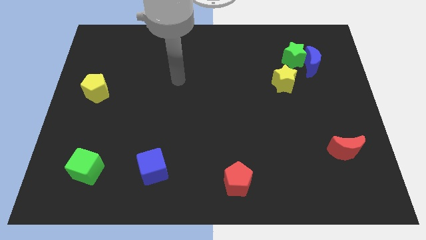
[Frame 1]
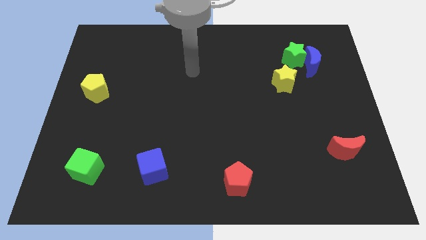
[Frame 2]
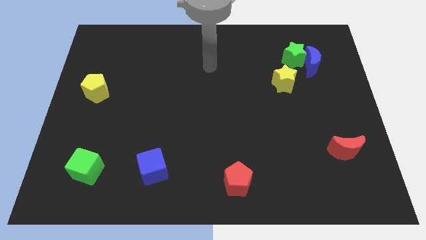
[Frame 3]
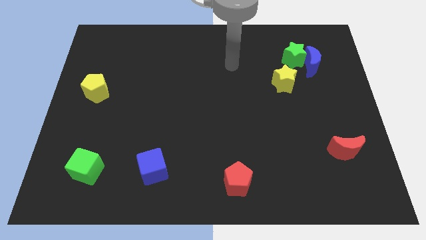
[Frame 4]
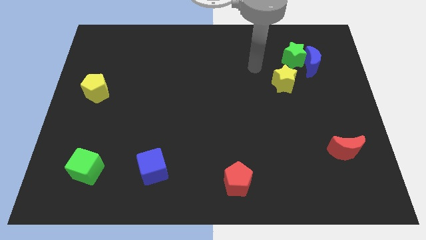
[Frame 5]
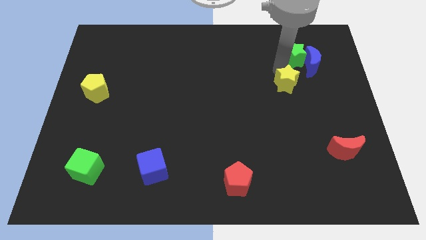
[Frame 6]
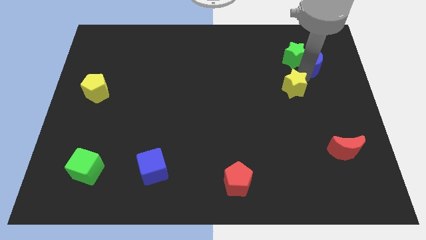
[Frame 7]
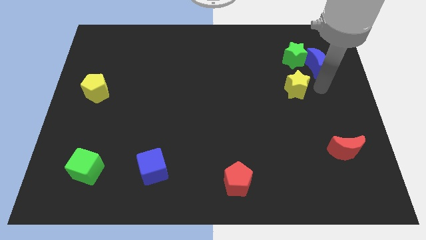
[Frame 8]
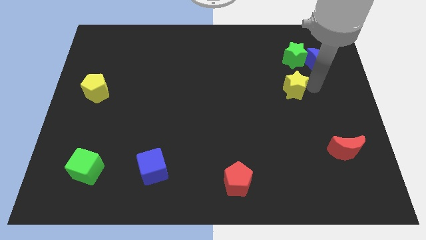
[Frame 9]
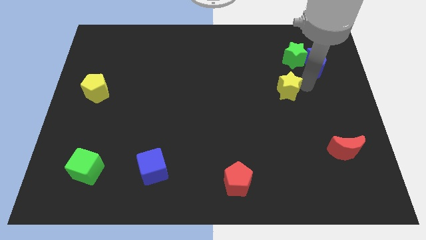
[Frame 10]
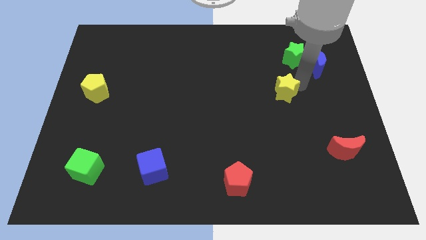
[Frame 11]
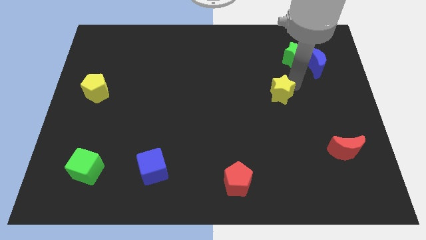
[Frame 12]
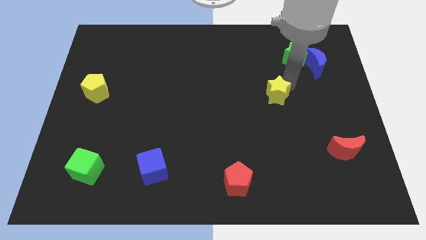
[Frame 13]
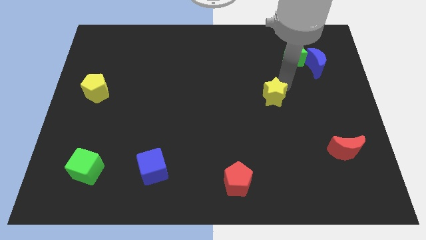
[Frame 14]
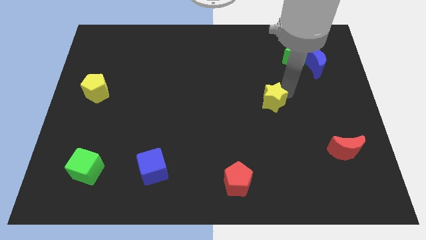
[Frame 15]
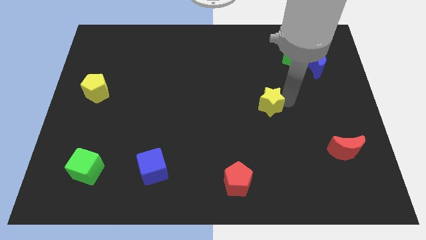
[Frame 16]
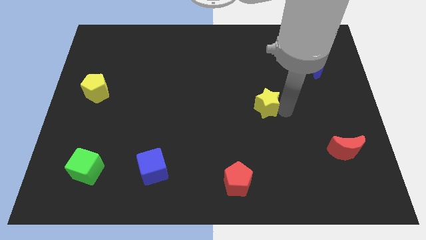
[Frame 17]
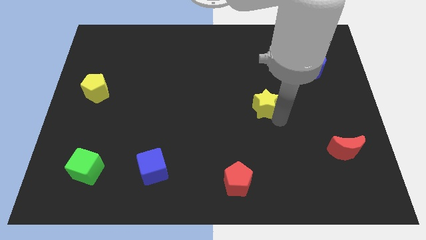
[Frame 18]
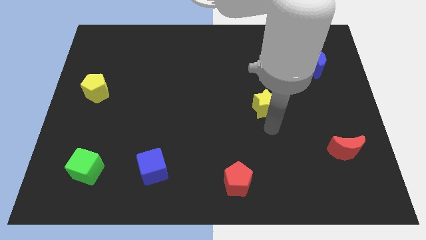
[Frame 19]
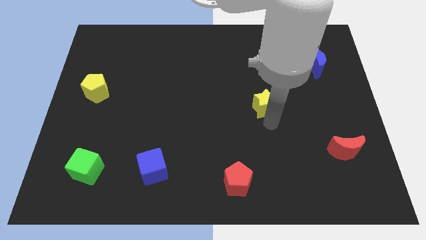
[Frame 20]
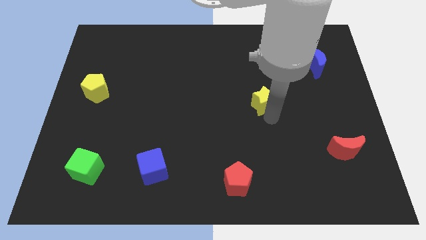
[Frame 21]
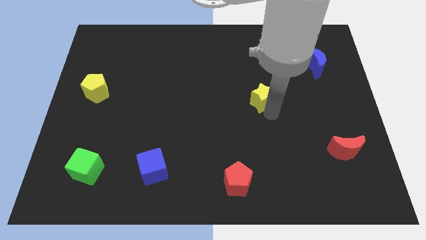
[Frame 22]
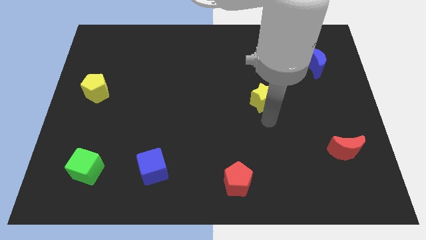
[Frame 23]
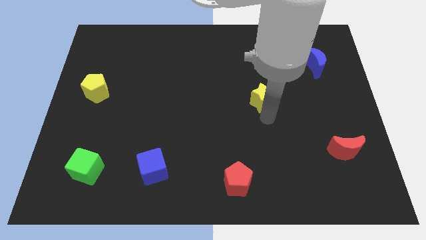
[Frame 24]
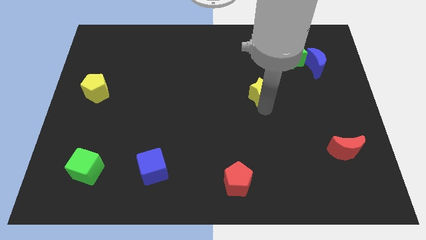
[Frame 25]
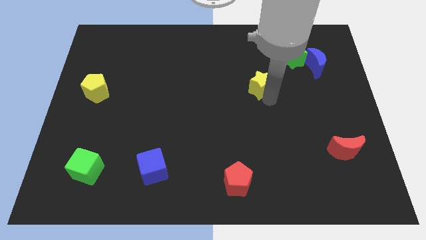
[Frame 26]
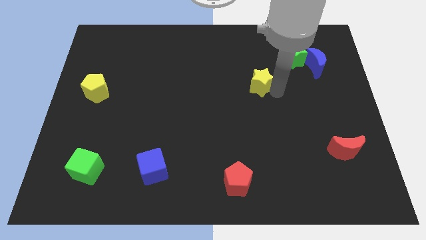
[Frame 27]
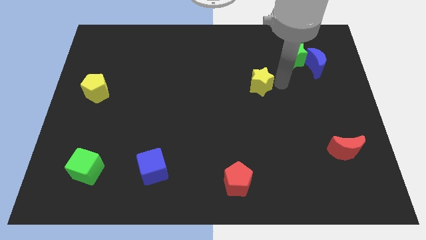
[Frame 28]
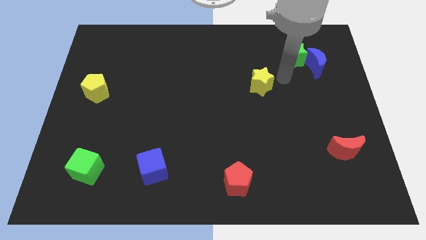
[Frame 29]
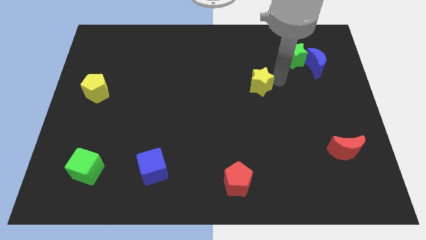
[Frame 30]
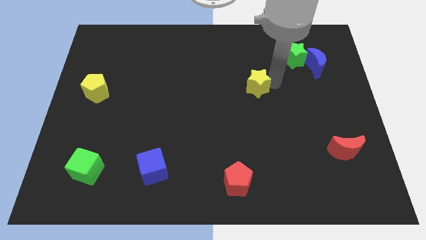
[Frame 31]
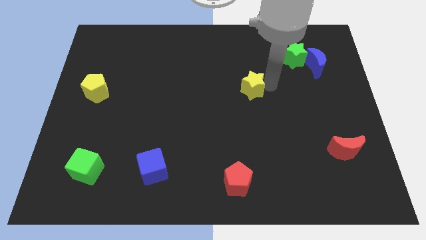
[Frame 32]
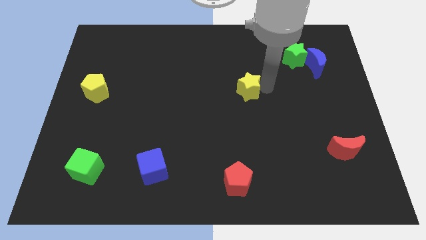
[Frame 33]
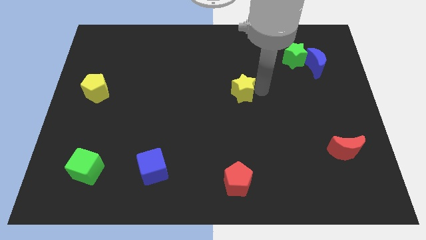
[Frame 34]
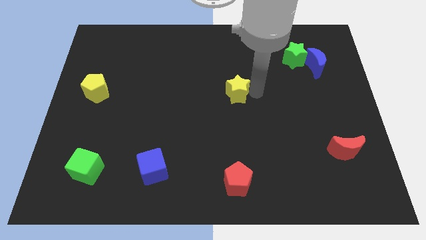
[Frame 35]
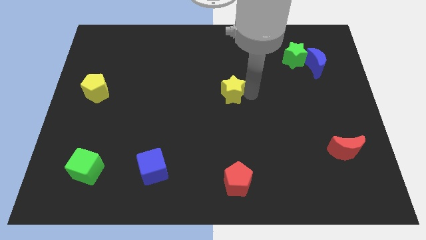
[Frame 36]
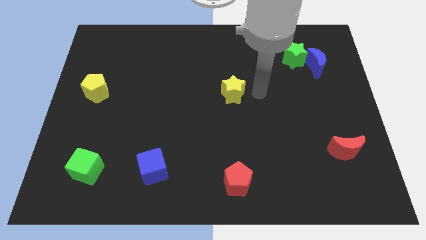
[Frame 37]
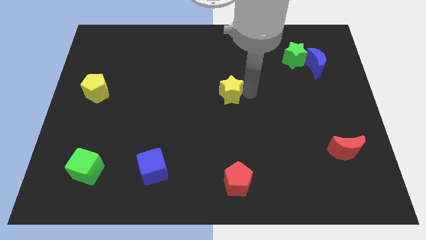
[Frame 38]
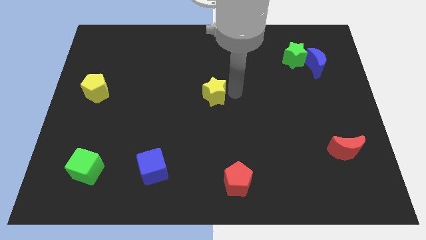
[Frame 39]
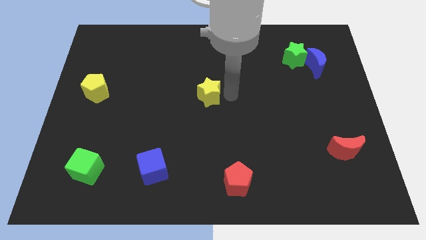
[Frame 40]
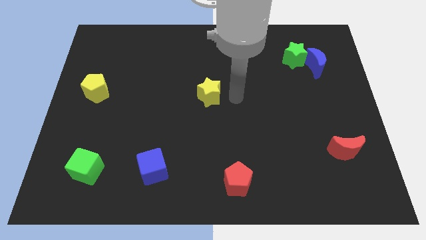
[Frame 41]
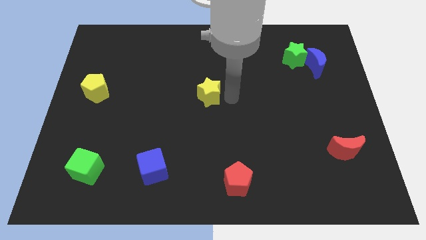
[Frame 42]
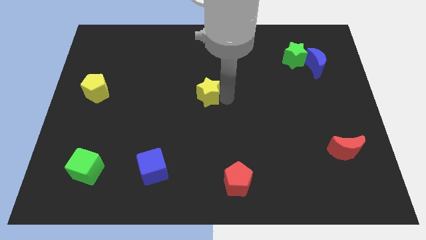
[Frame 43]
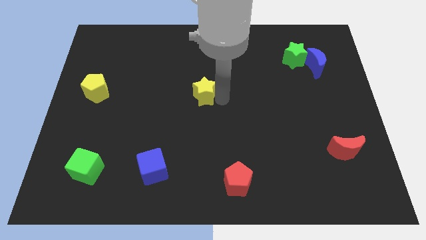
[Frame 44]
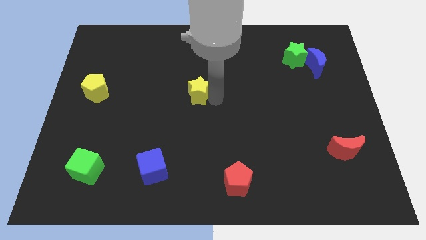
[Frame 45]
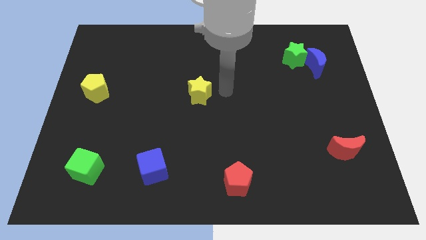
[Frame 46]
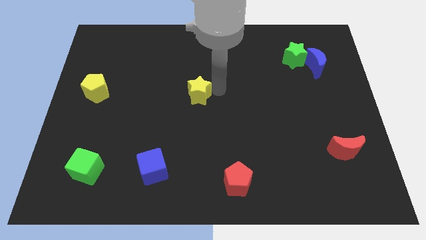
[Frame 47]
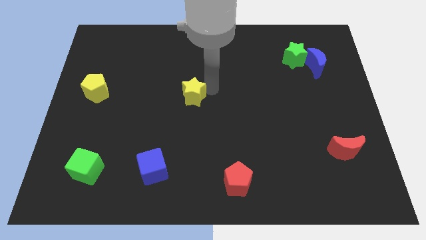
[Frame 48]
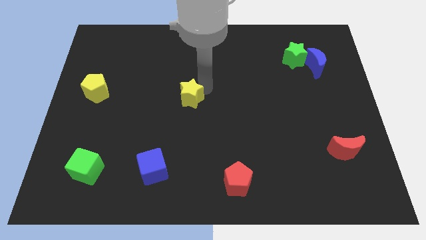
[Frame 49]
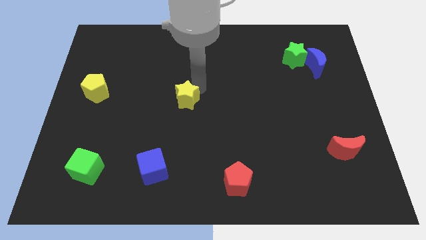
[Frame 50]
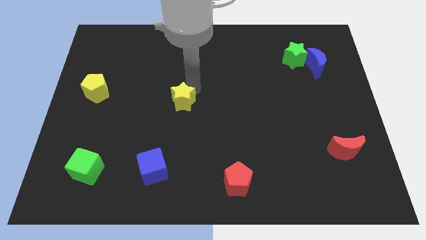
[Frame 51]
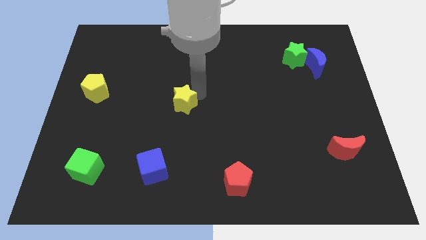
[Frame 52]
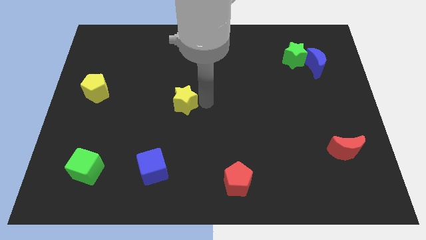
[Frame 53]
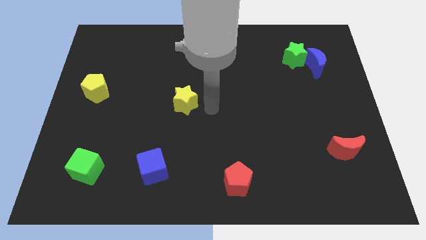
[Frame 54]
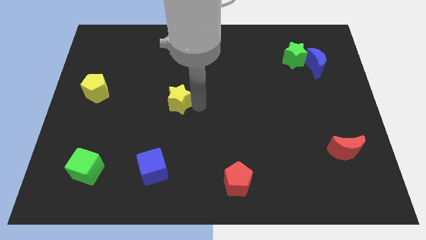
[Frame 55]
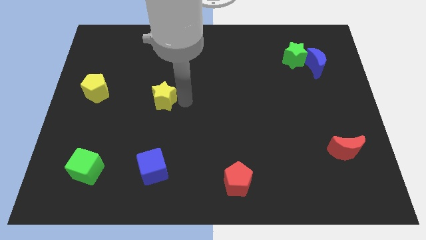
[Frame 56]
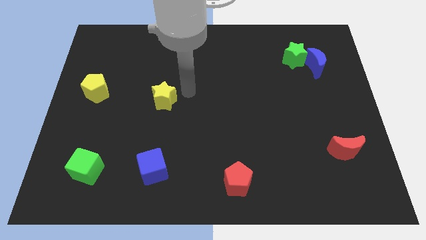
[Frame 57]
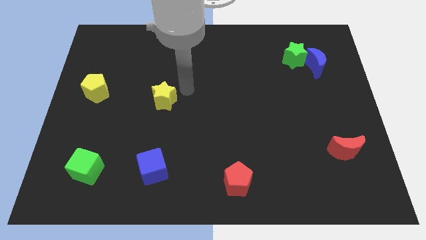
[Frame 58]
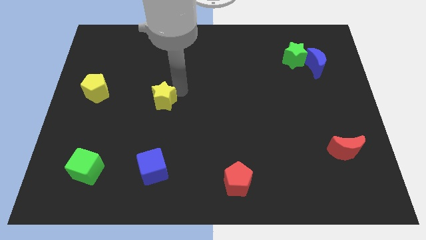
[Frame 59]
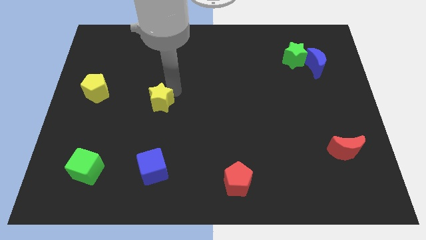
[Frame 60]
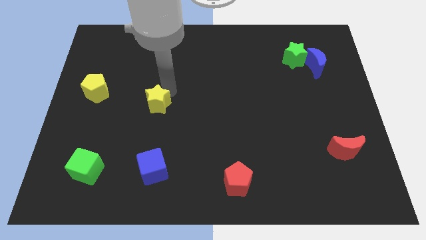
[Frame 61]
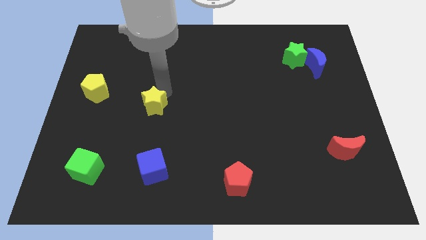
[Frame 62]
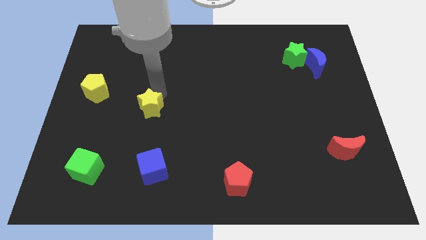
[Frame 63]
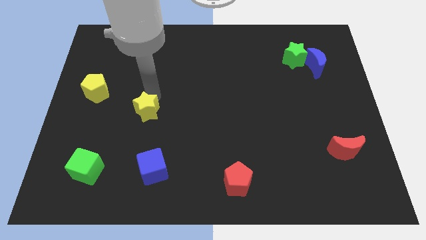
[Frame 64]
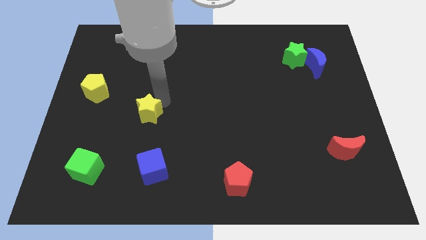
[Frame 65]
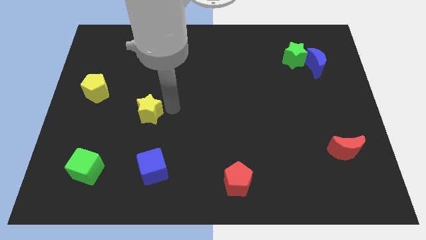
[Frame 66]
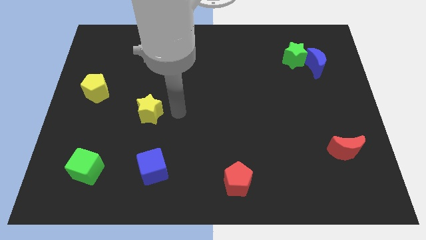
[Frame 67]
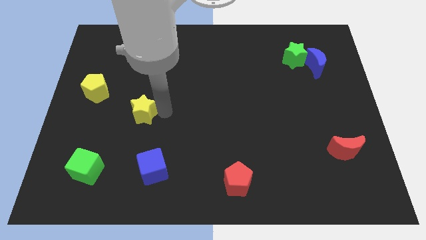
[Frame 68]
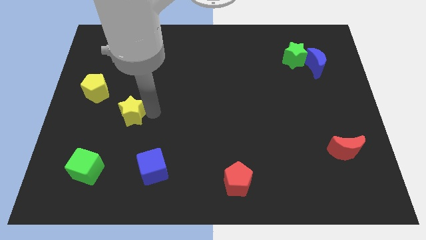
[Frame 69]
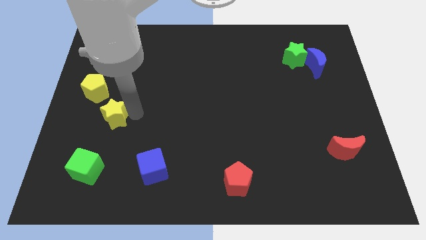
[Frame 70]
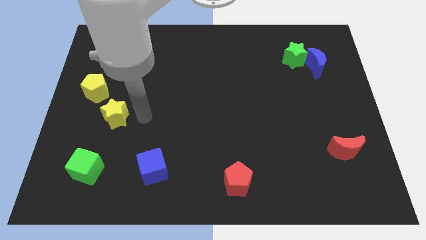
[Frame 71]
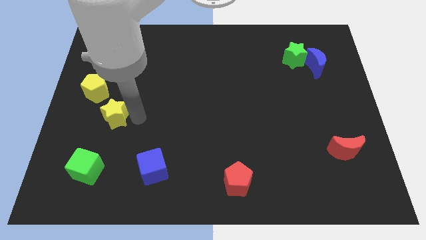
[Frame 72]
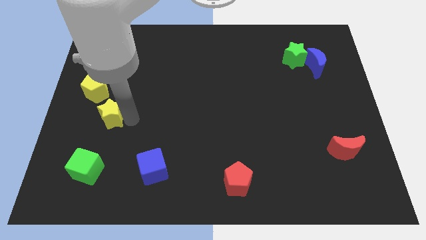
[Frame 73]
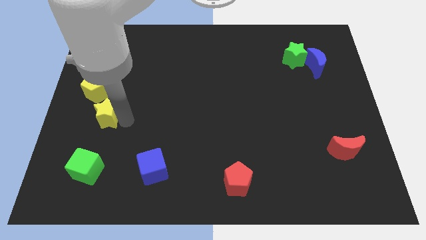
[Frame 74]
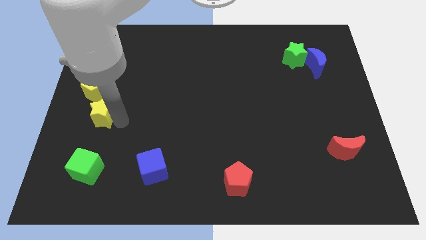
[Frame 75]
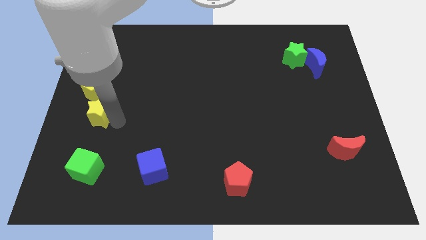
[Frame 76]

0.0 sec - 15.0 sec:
move the yellow star to the left side of the board
